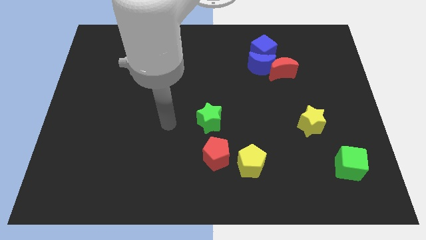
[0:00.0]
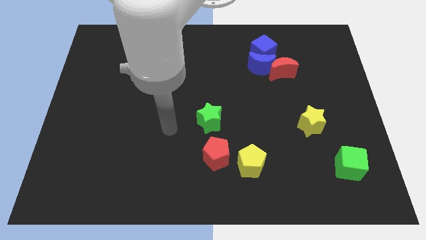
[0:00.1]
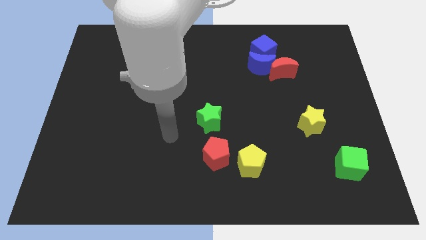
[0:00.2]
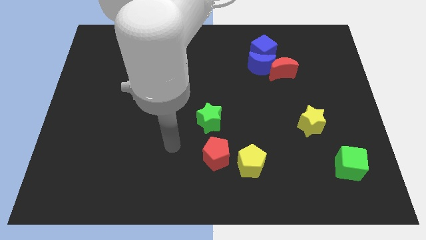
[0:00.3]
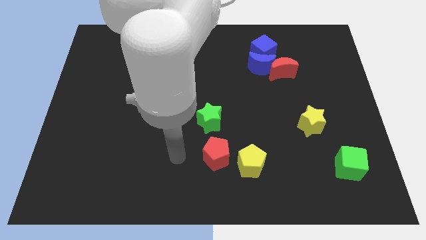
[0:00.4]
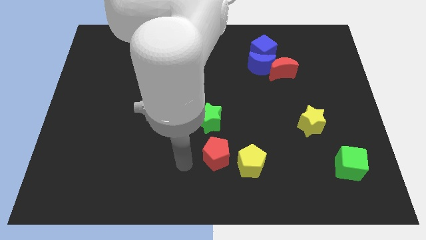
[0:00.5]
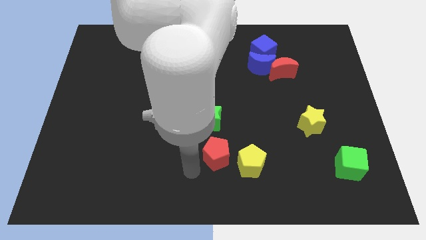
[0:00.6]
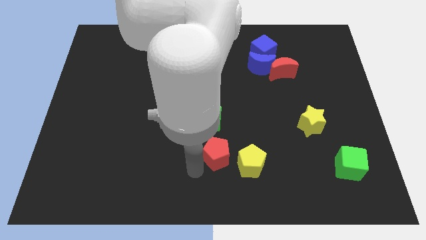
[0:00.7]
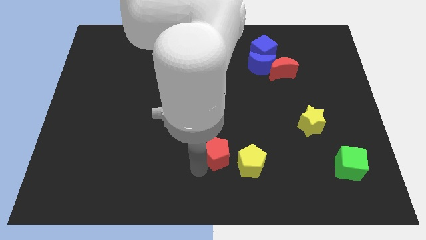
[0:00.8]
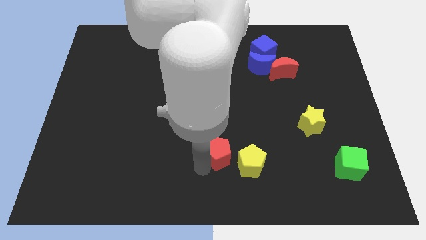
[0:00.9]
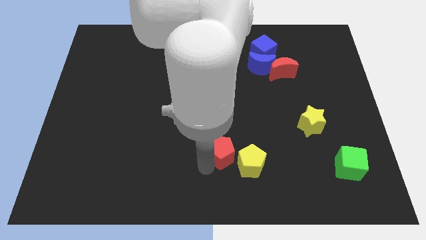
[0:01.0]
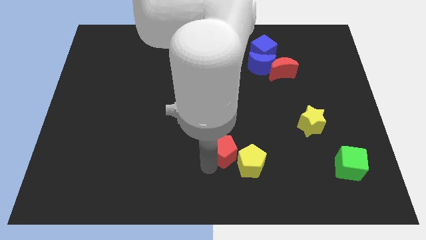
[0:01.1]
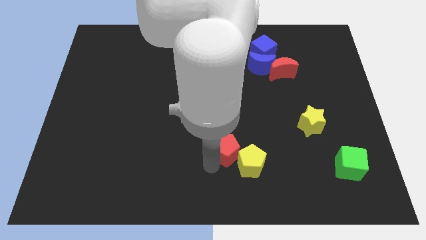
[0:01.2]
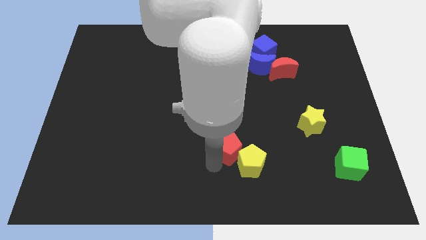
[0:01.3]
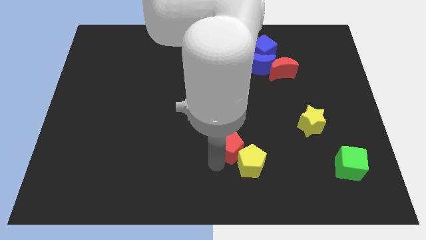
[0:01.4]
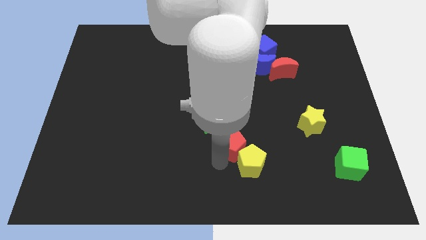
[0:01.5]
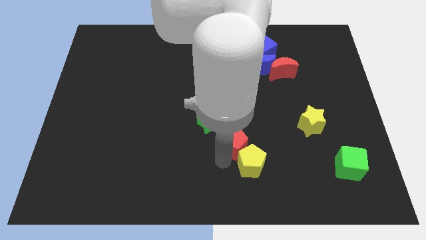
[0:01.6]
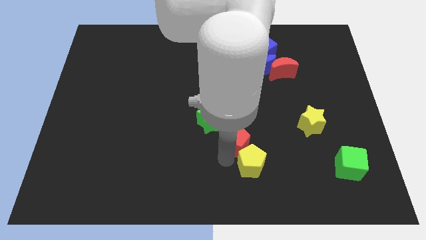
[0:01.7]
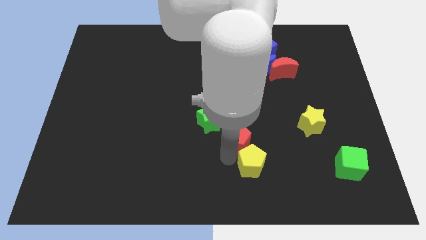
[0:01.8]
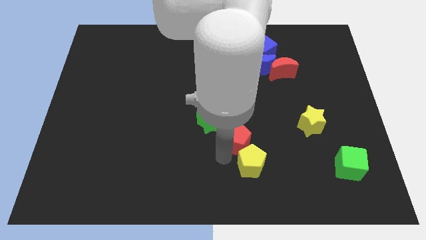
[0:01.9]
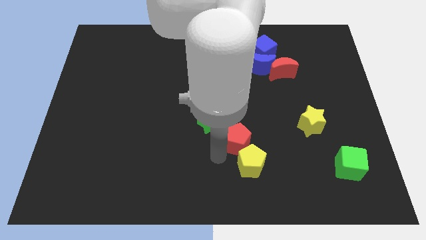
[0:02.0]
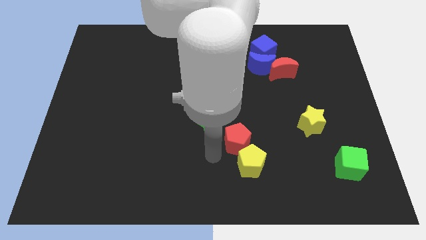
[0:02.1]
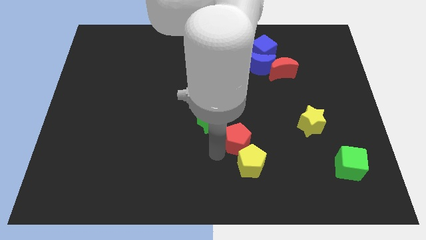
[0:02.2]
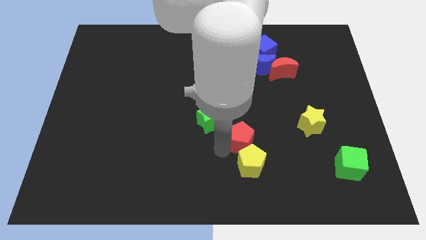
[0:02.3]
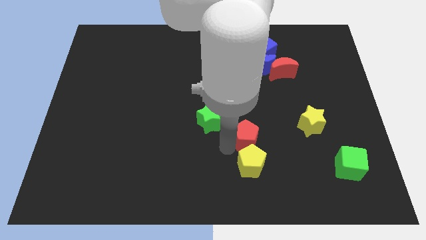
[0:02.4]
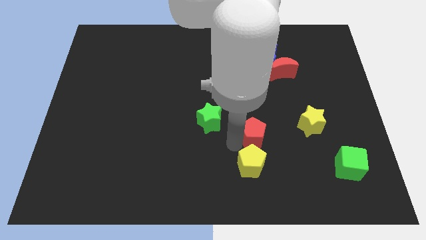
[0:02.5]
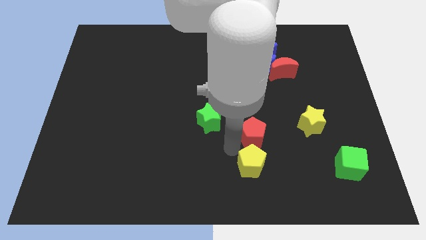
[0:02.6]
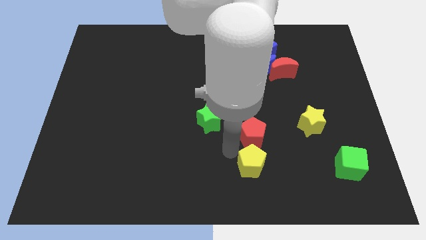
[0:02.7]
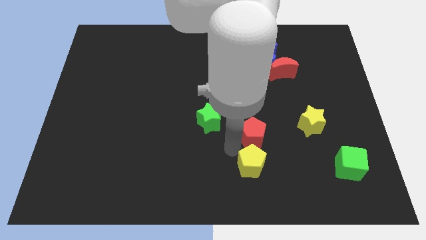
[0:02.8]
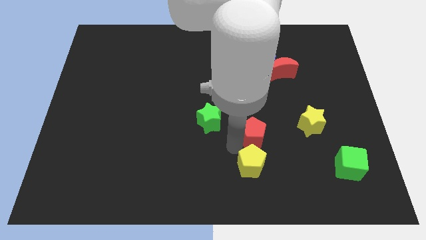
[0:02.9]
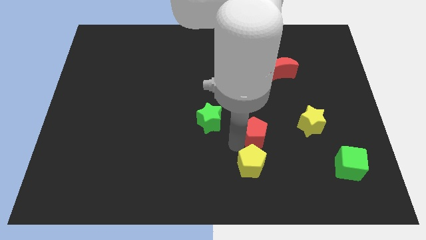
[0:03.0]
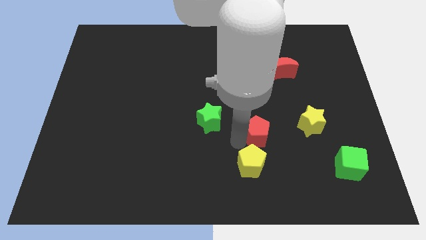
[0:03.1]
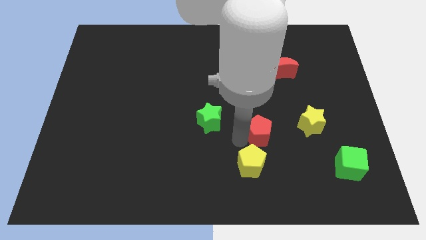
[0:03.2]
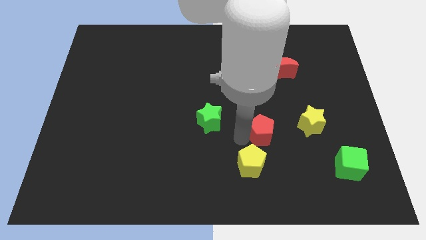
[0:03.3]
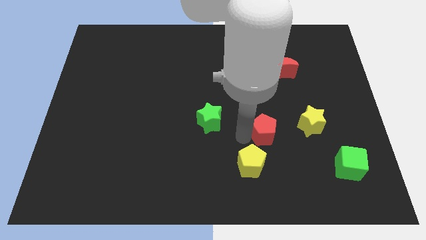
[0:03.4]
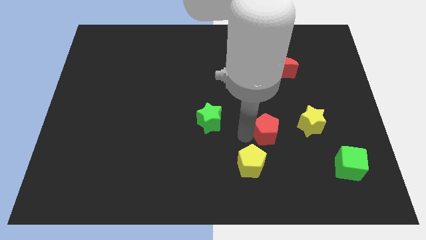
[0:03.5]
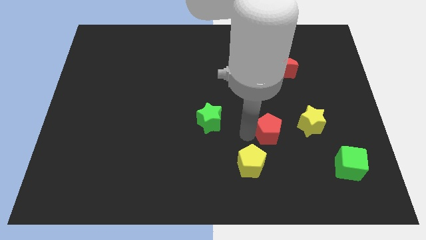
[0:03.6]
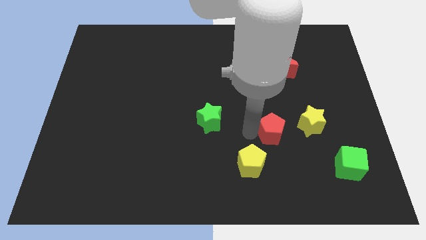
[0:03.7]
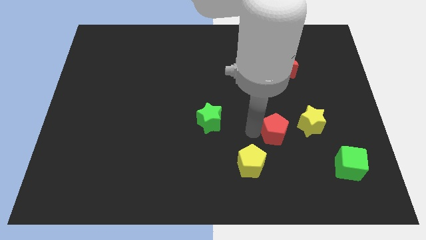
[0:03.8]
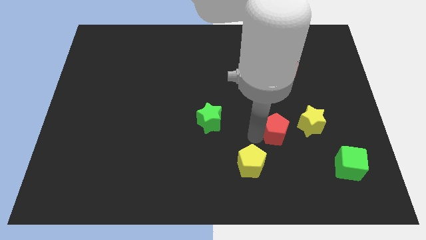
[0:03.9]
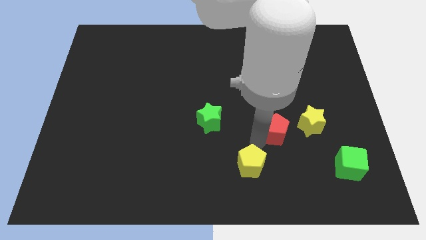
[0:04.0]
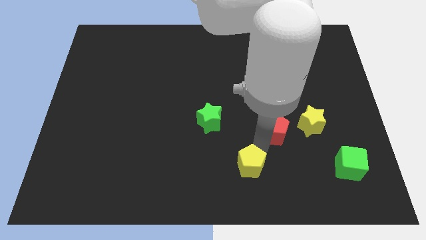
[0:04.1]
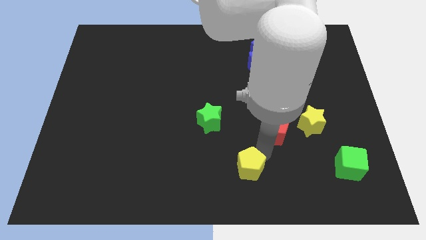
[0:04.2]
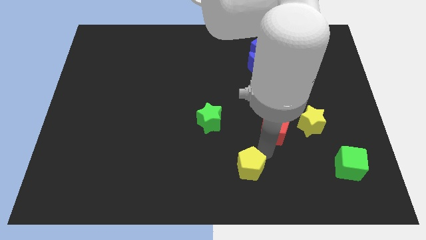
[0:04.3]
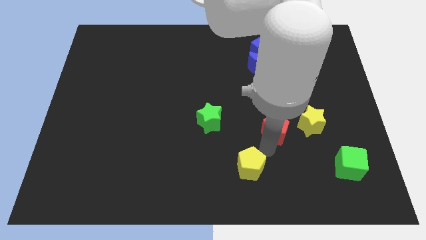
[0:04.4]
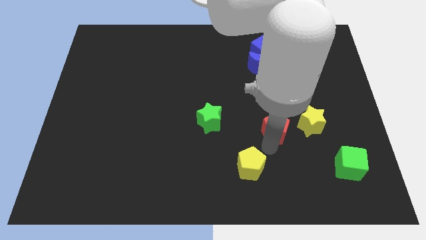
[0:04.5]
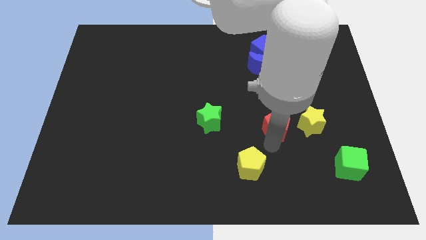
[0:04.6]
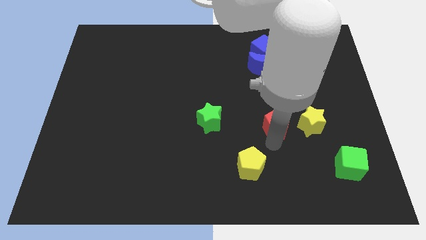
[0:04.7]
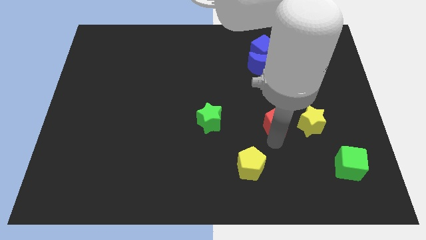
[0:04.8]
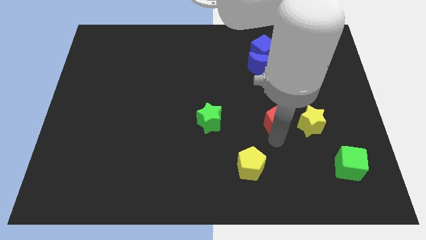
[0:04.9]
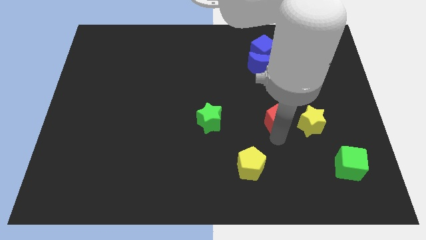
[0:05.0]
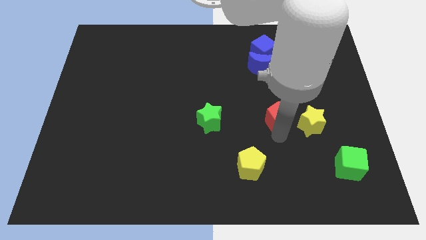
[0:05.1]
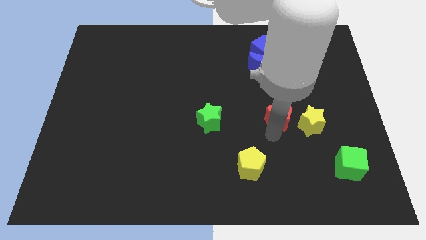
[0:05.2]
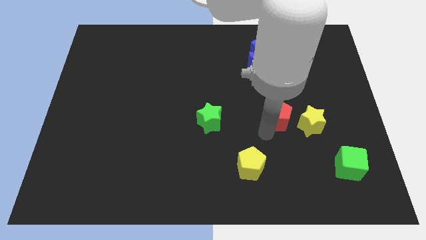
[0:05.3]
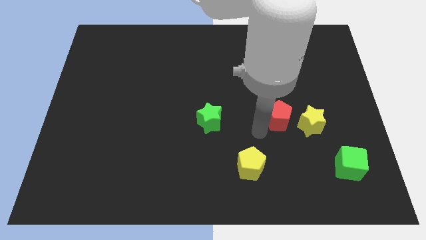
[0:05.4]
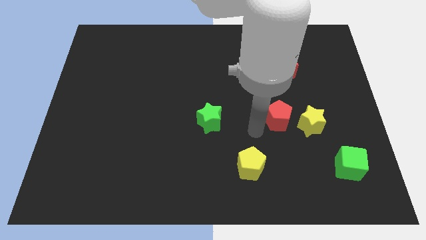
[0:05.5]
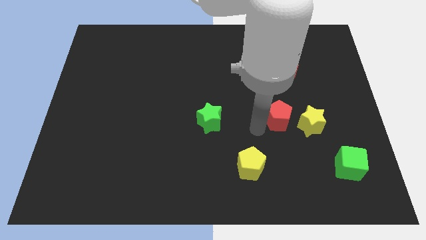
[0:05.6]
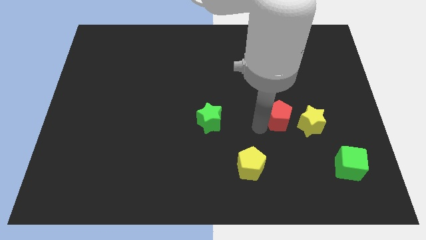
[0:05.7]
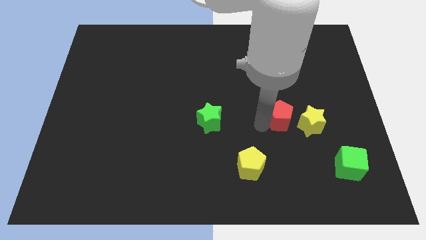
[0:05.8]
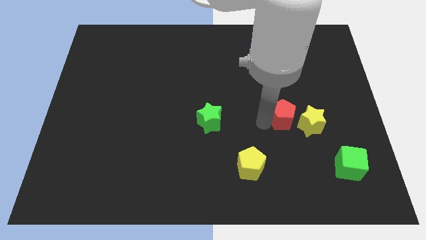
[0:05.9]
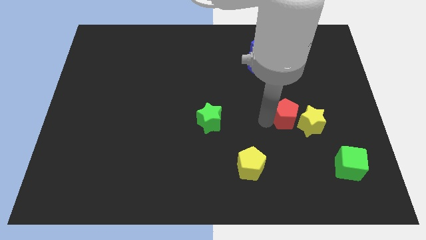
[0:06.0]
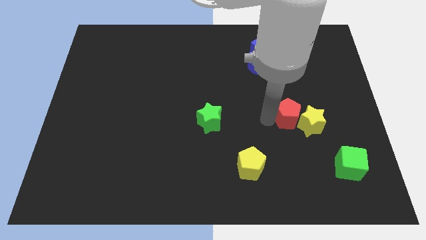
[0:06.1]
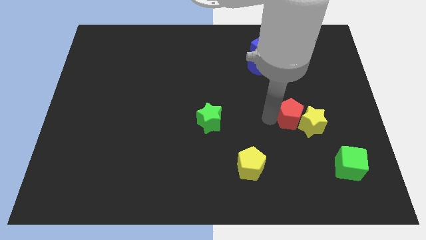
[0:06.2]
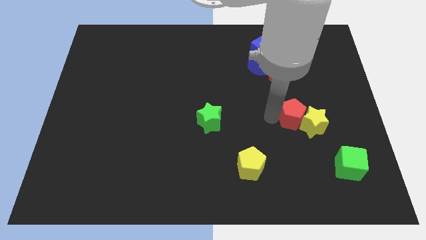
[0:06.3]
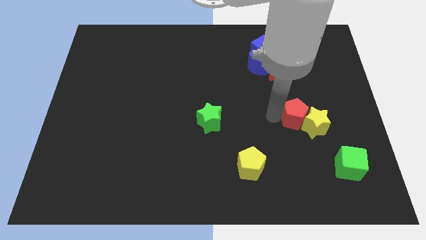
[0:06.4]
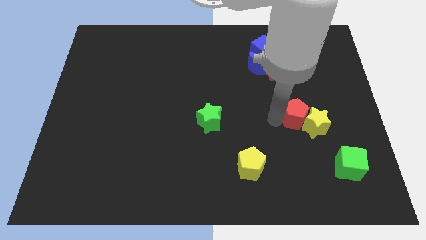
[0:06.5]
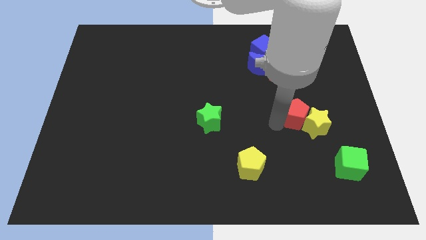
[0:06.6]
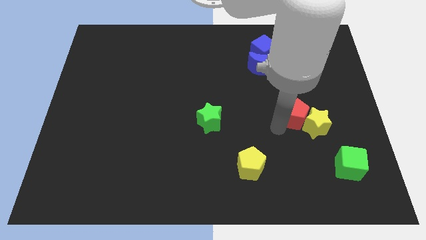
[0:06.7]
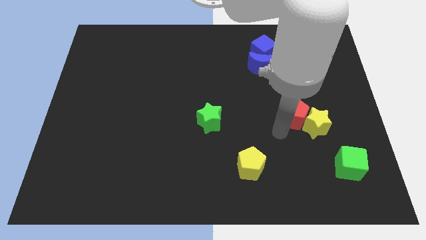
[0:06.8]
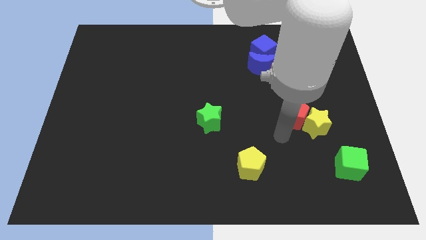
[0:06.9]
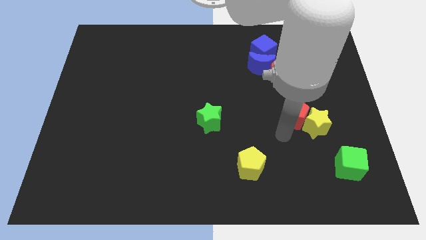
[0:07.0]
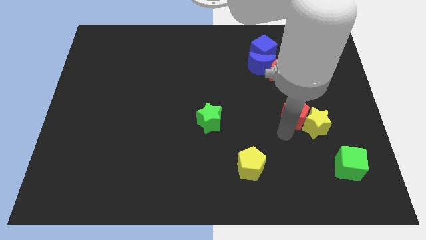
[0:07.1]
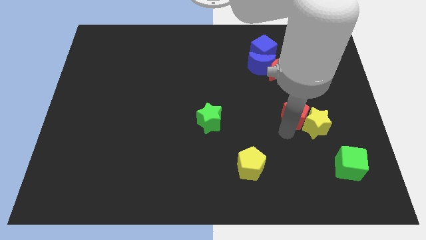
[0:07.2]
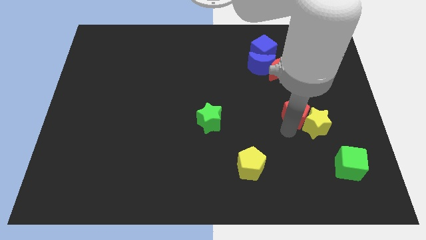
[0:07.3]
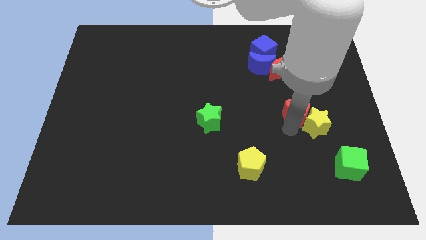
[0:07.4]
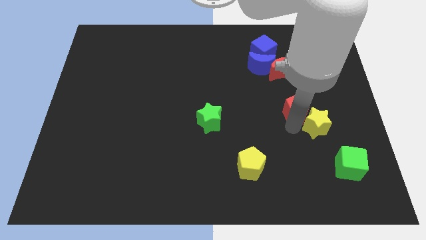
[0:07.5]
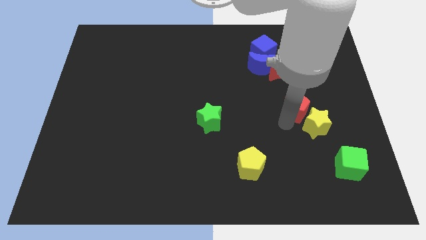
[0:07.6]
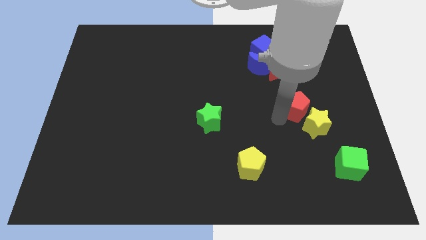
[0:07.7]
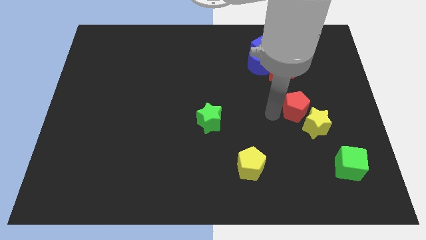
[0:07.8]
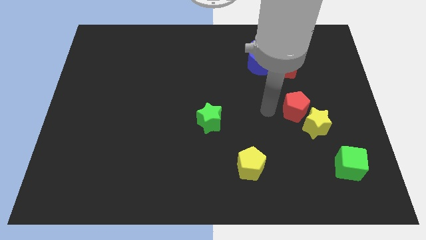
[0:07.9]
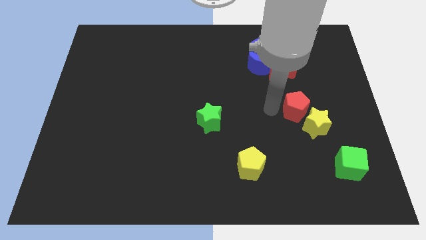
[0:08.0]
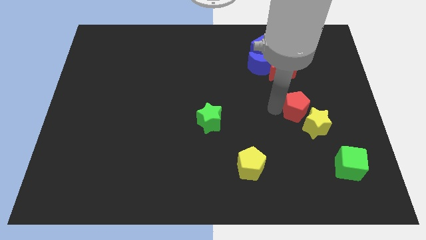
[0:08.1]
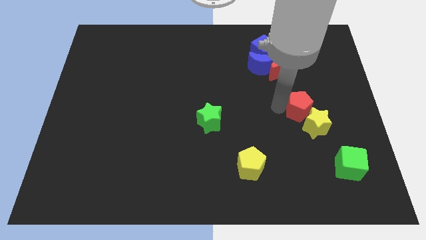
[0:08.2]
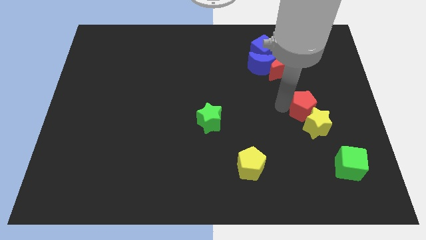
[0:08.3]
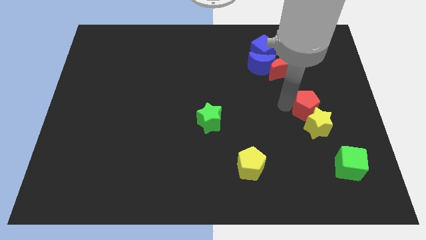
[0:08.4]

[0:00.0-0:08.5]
put the red pentagon diagonally up and to the right of the yellow star
